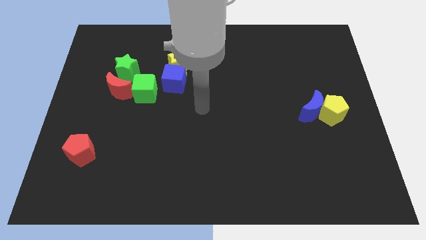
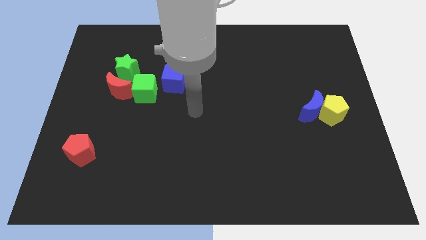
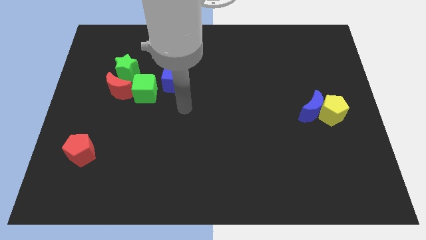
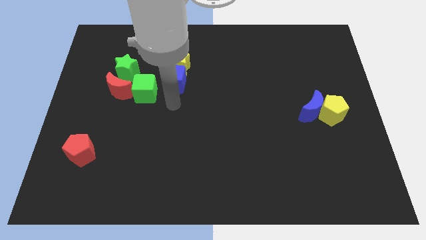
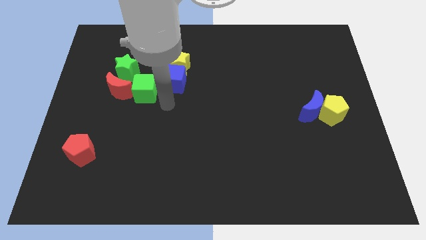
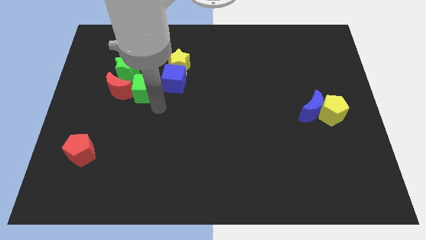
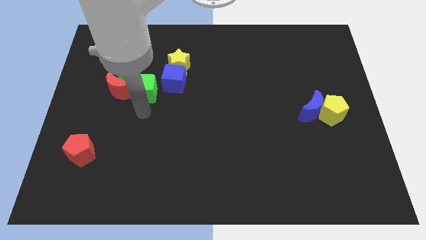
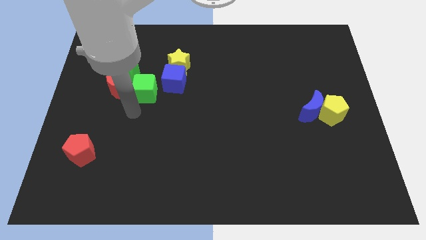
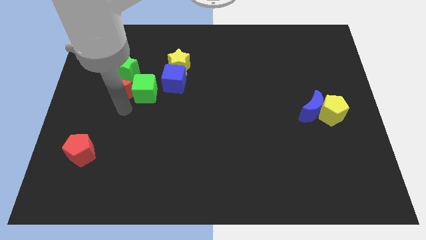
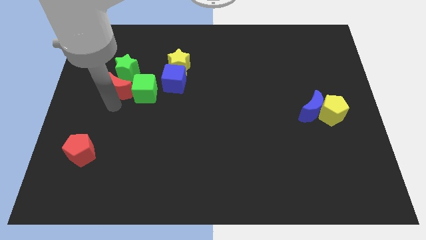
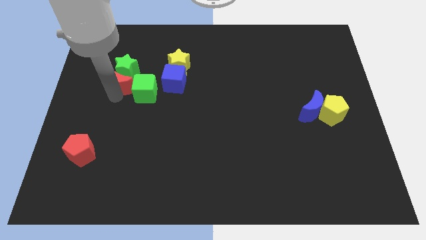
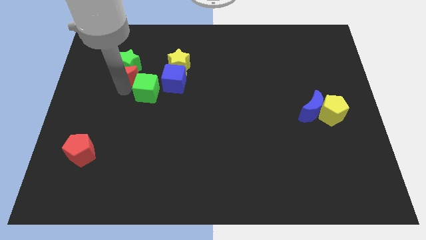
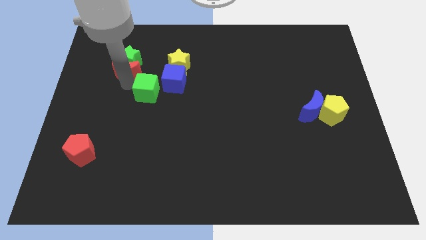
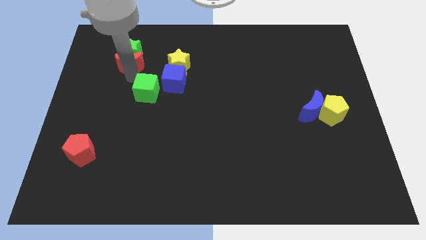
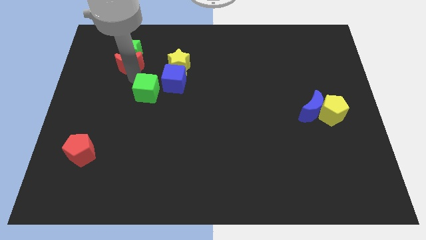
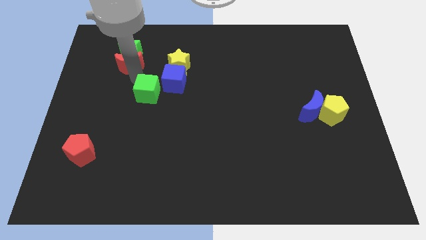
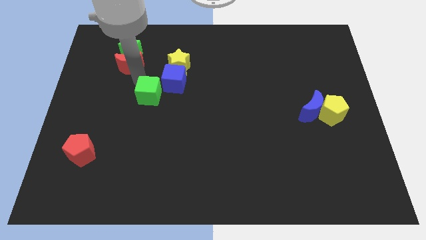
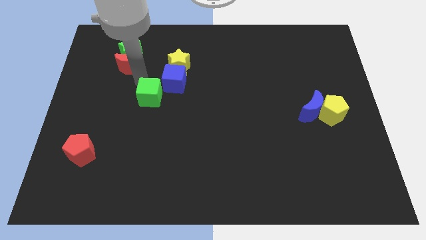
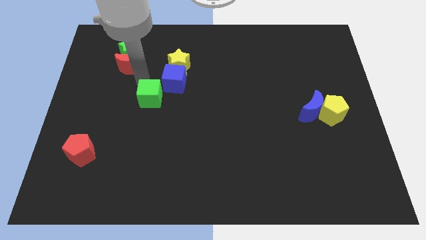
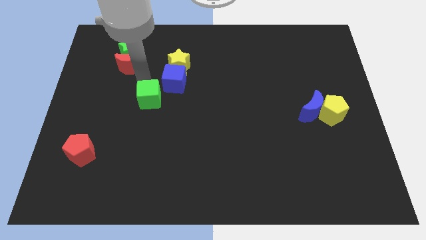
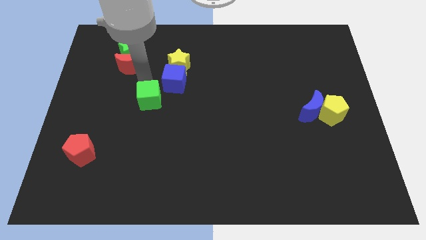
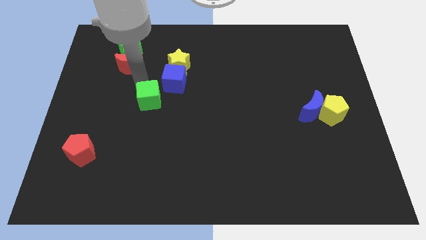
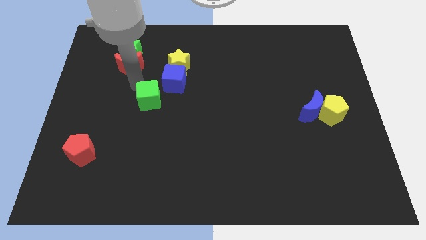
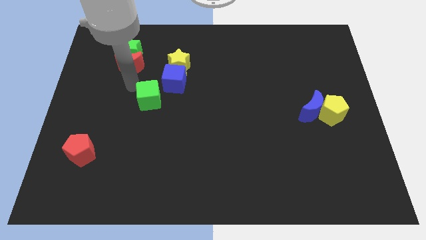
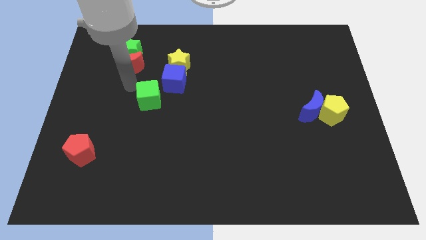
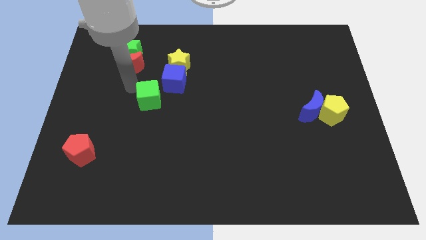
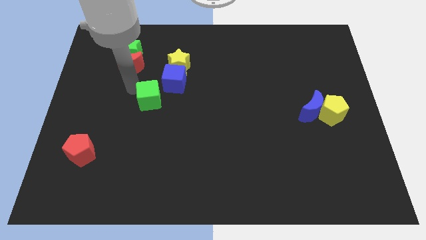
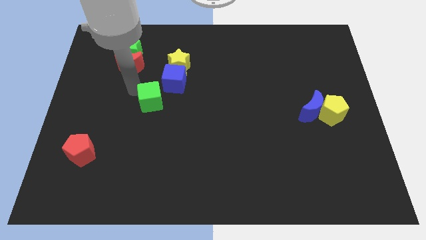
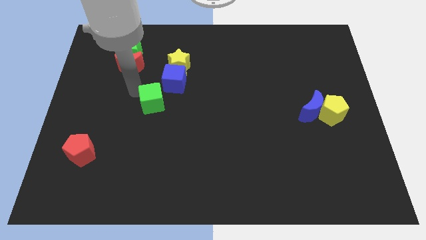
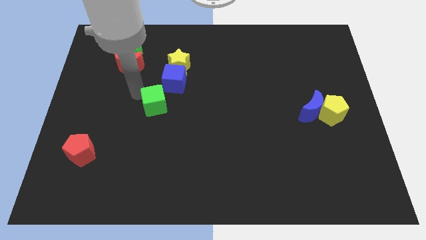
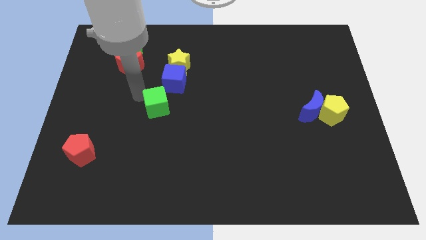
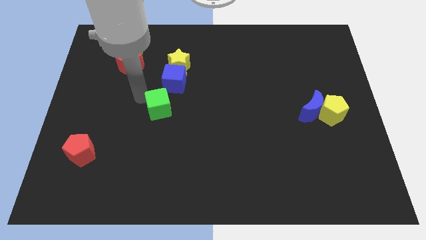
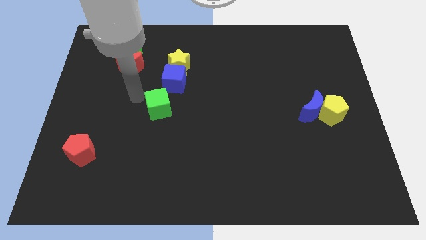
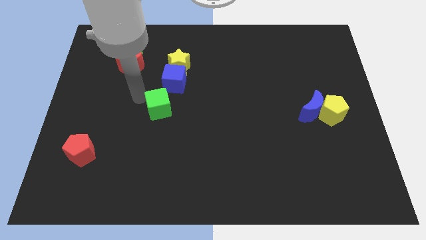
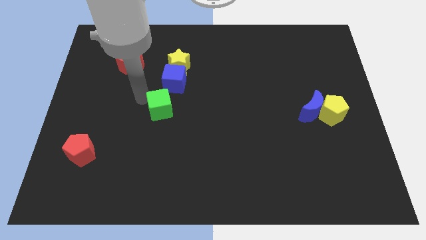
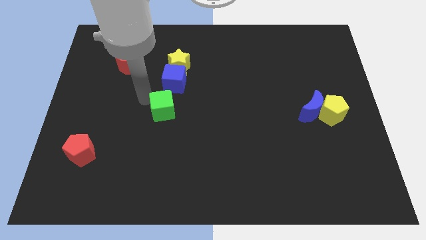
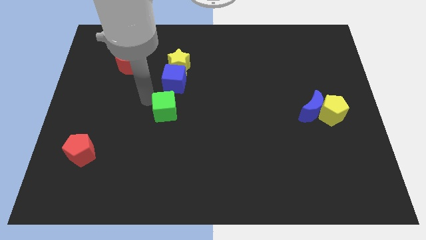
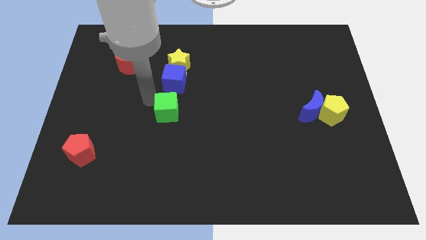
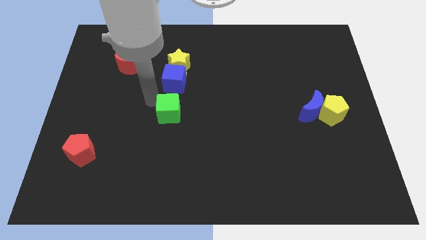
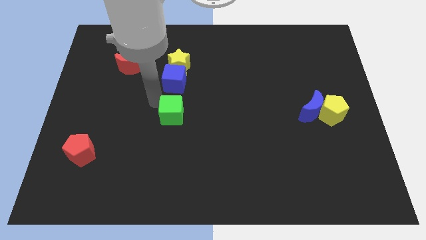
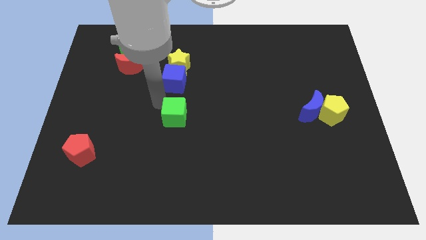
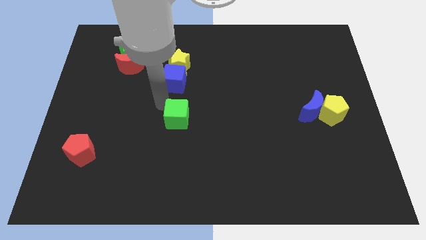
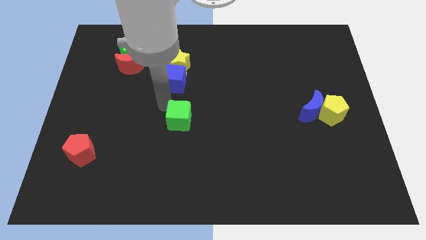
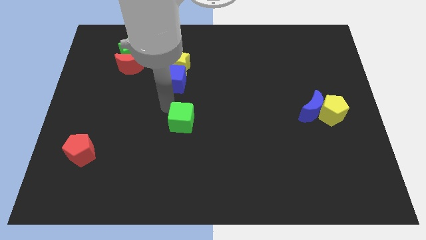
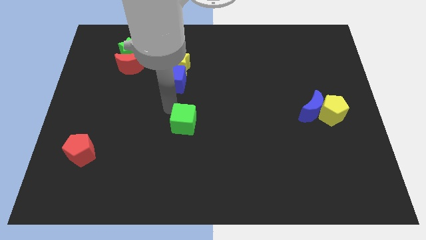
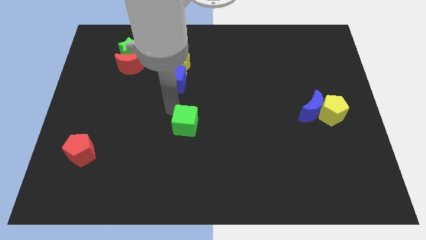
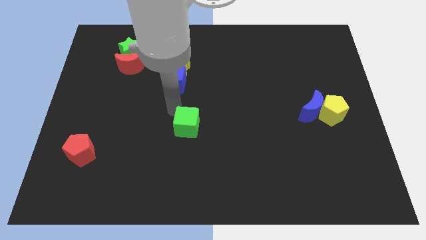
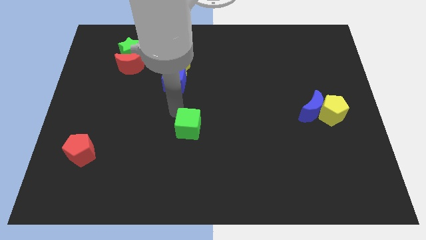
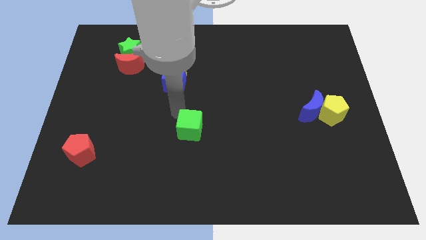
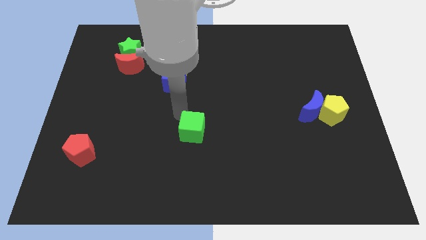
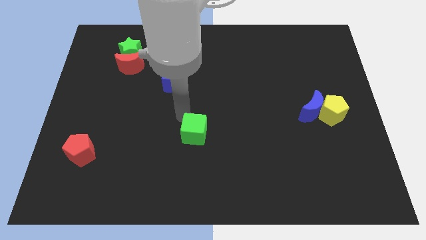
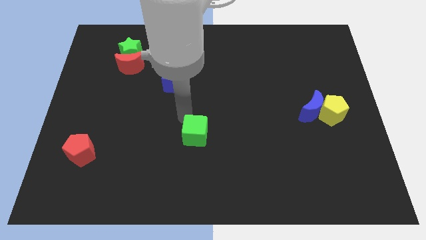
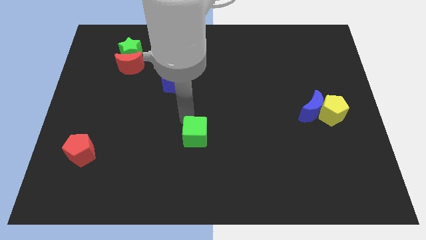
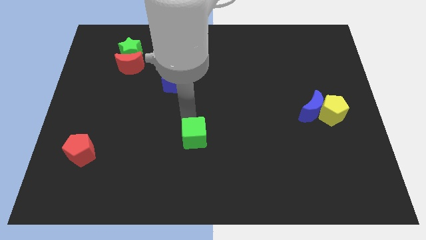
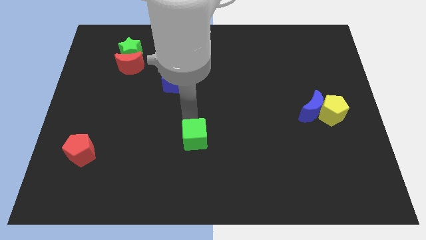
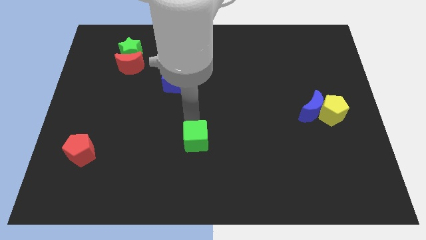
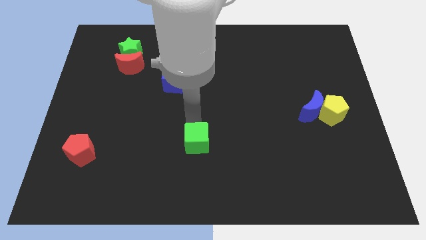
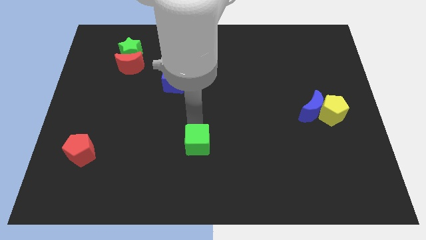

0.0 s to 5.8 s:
slide the green cube down and then to the right

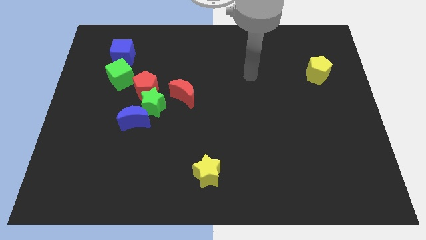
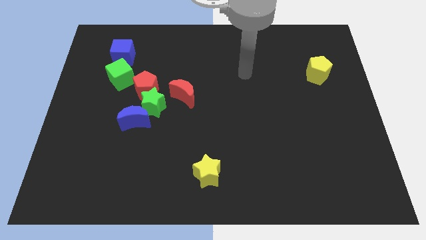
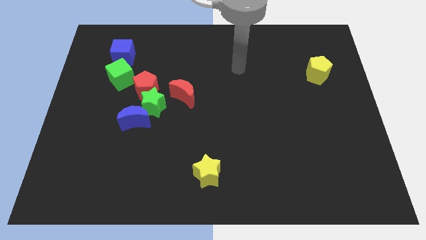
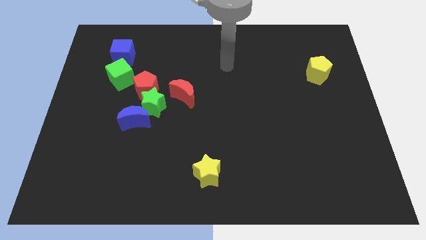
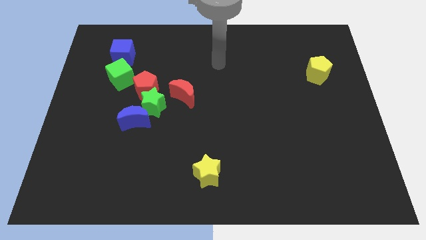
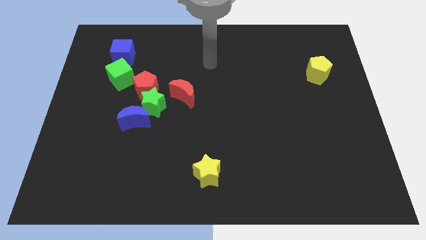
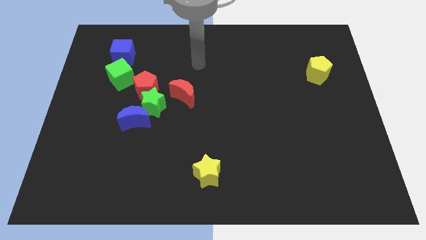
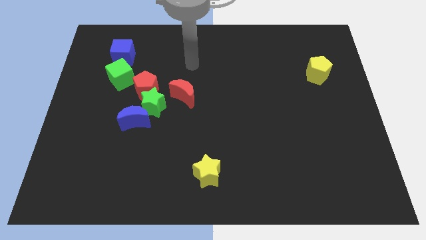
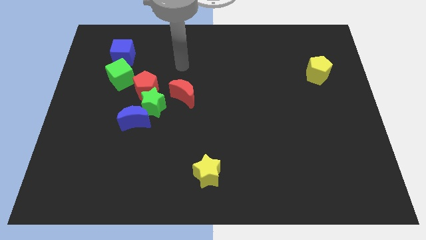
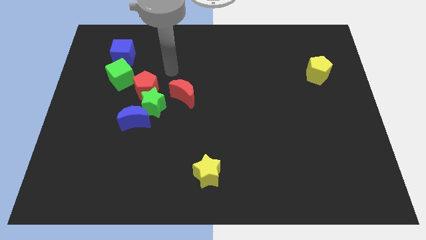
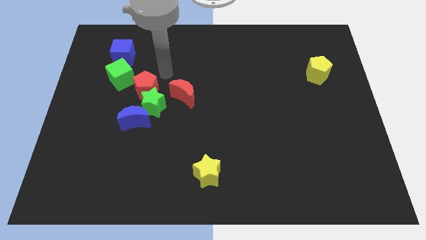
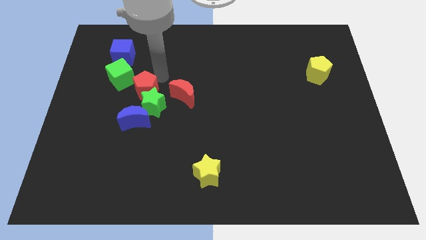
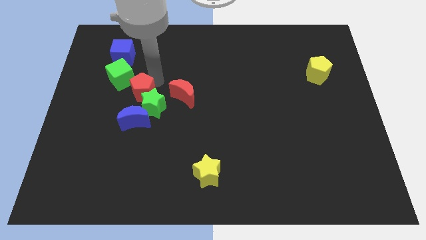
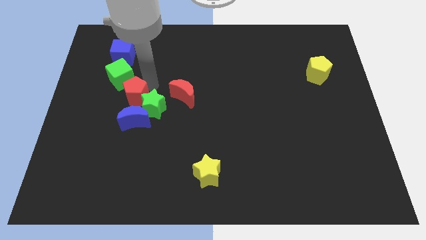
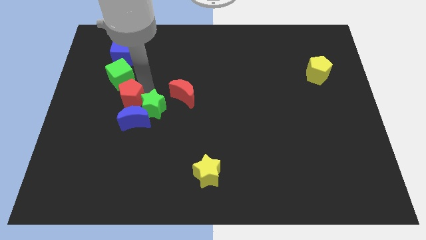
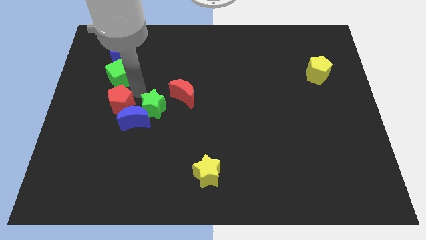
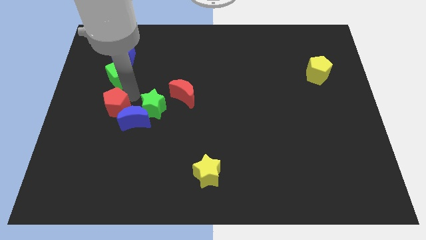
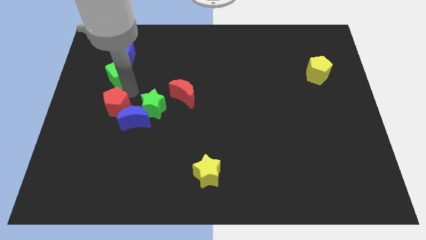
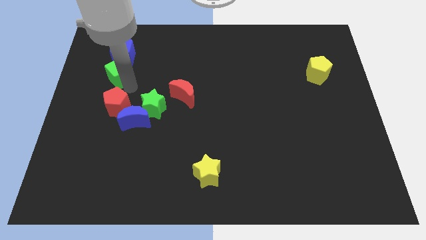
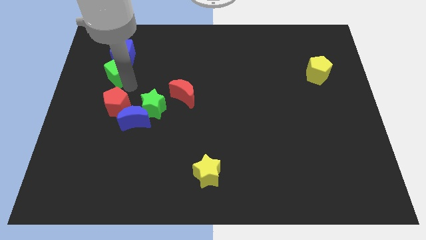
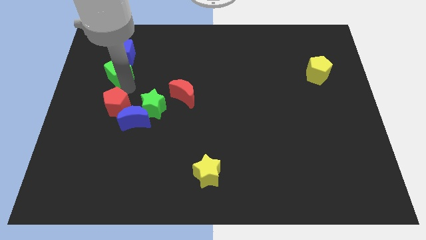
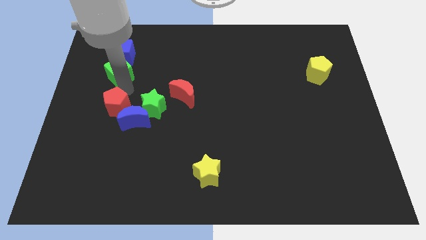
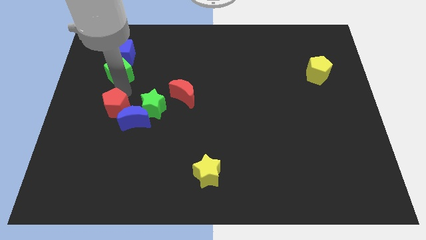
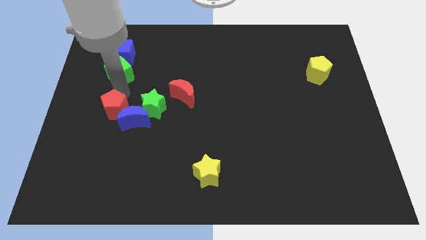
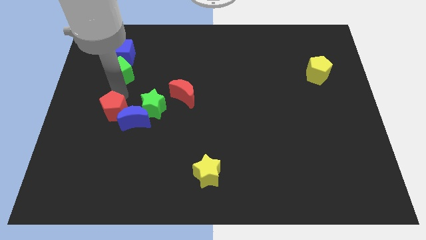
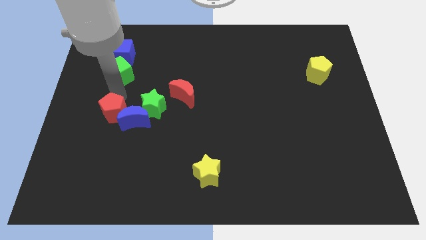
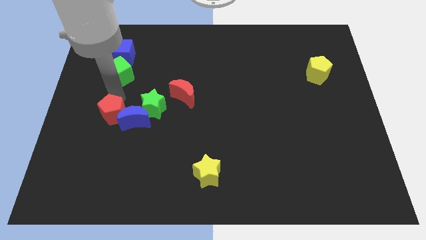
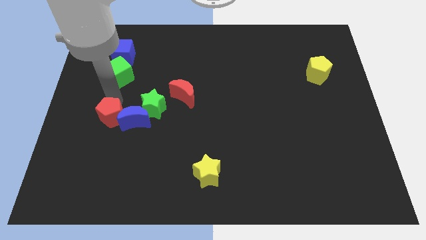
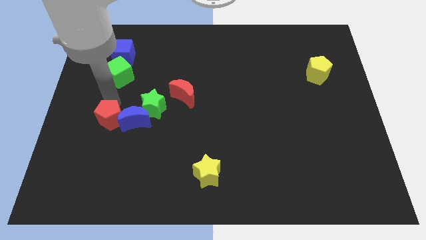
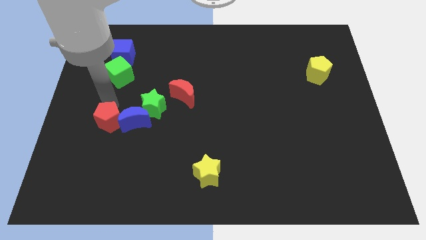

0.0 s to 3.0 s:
slightly push the red pentagon down
